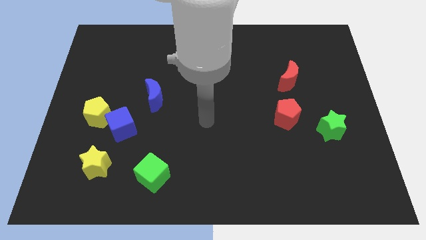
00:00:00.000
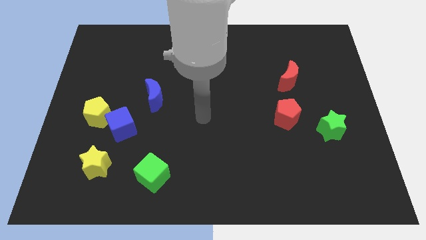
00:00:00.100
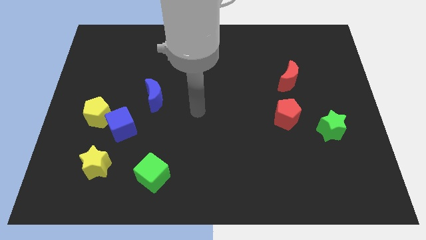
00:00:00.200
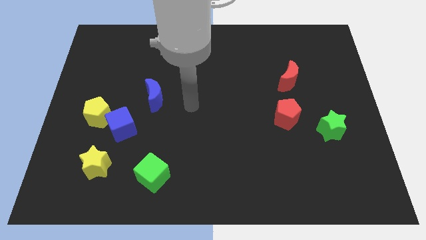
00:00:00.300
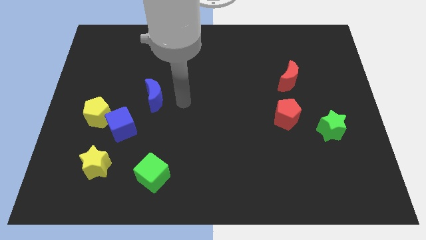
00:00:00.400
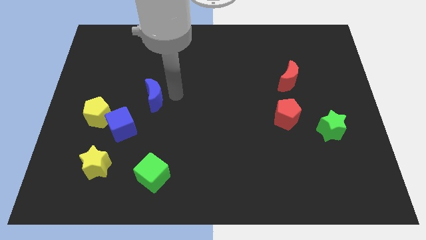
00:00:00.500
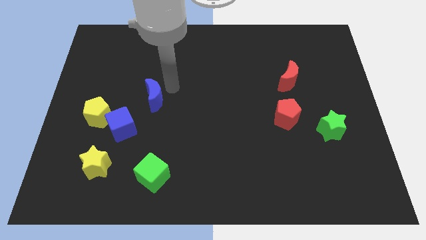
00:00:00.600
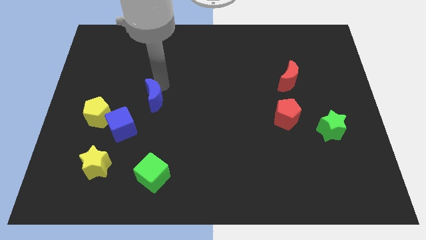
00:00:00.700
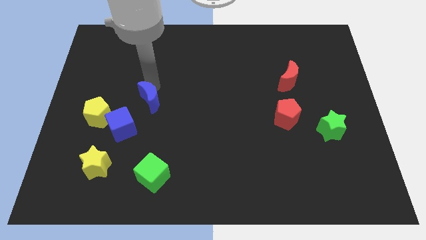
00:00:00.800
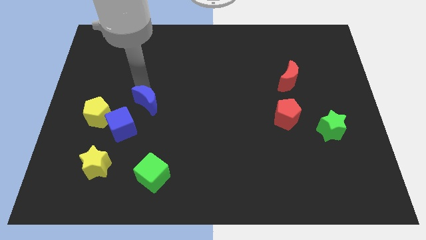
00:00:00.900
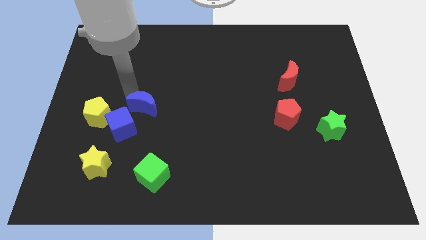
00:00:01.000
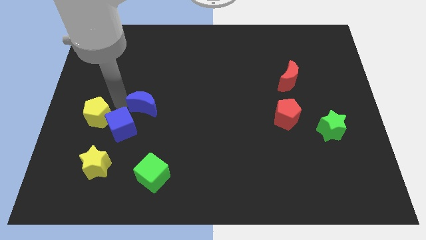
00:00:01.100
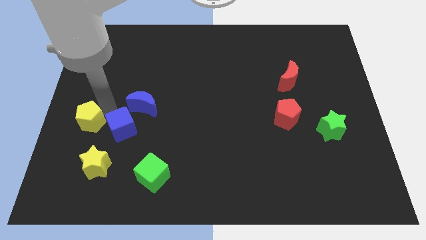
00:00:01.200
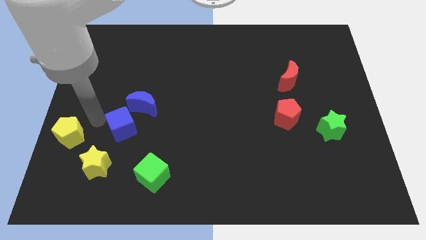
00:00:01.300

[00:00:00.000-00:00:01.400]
pull the blue cube apart from the yellow pentagon

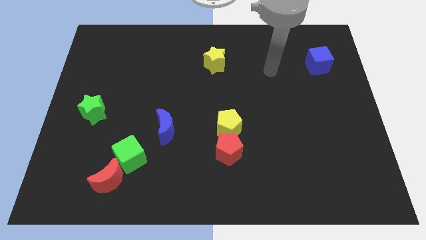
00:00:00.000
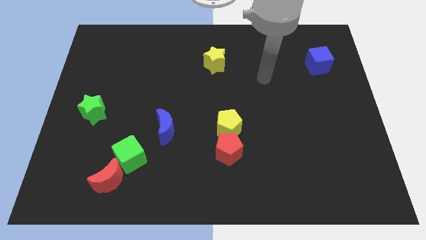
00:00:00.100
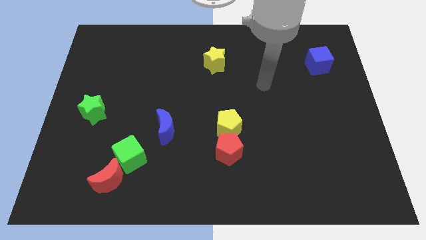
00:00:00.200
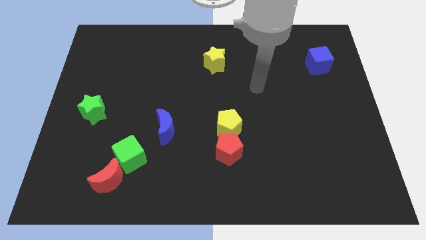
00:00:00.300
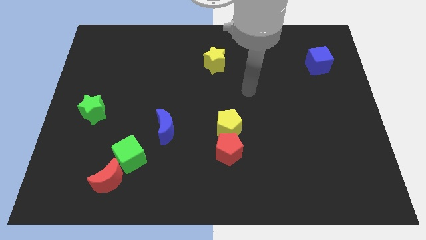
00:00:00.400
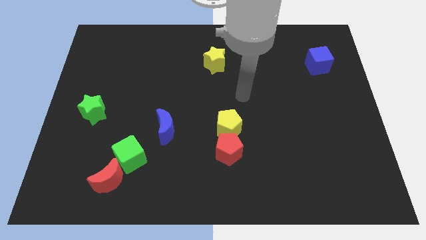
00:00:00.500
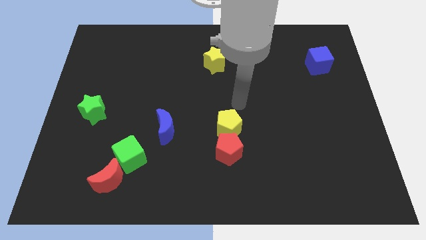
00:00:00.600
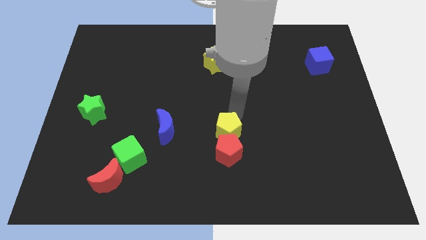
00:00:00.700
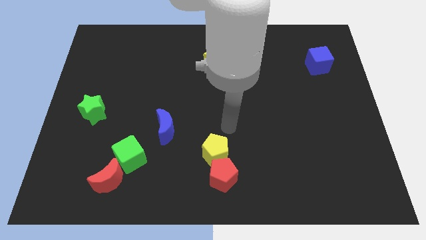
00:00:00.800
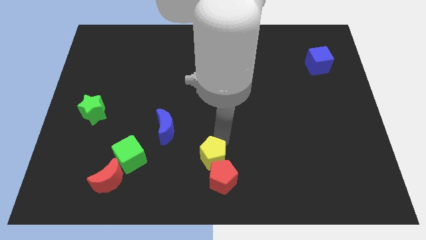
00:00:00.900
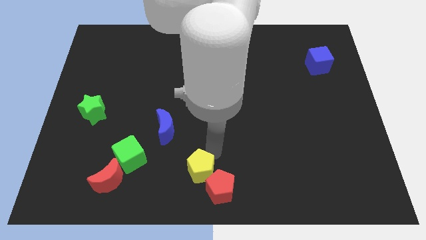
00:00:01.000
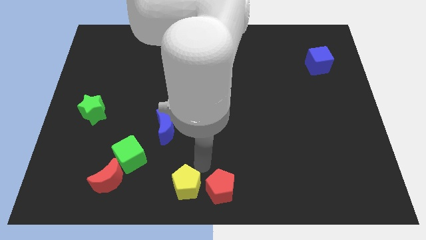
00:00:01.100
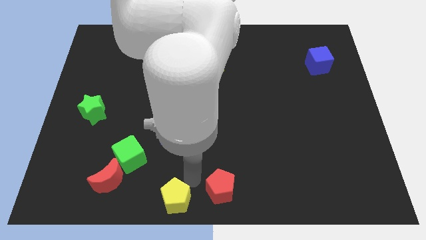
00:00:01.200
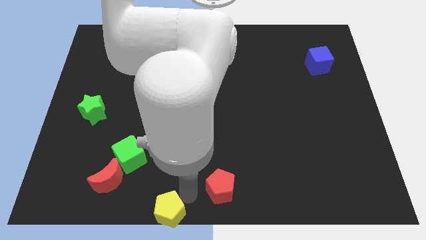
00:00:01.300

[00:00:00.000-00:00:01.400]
move the red pentagon away from the yellow pentagon

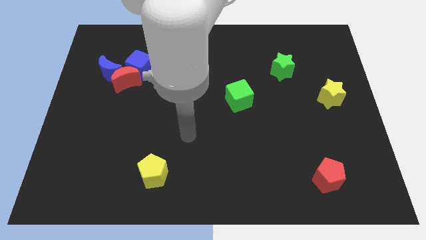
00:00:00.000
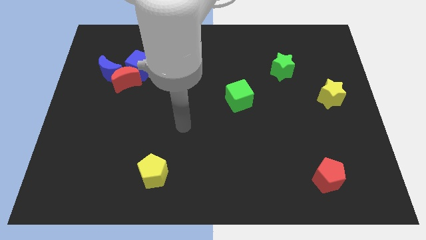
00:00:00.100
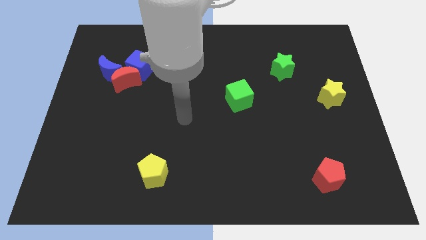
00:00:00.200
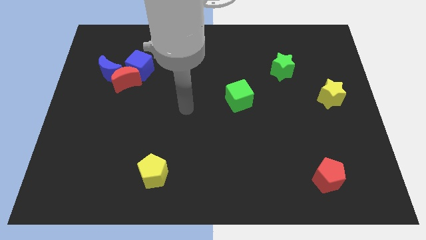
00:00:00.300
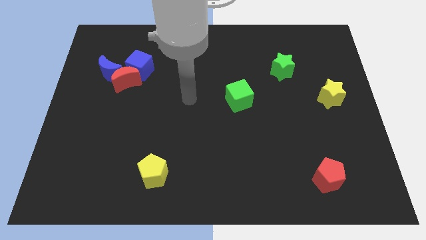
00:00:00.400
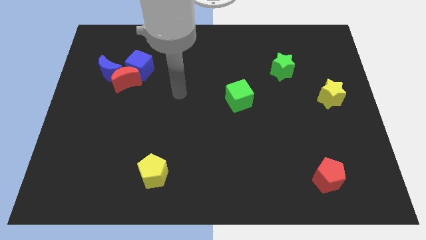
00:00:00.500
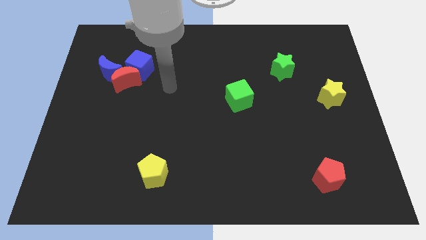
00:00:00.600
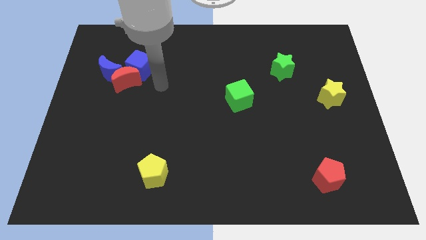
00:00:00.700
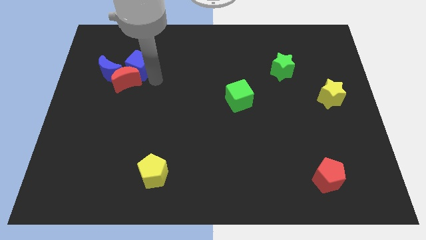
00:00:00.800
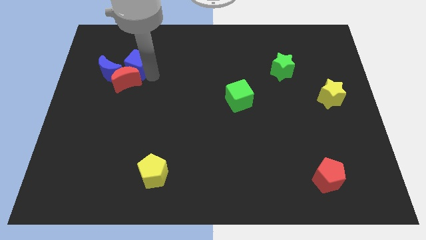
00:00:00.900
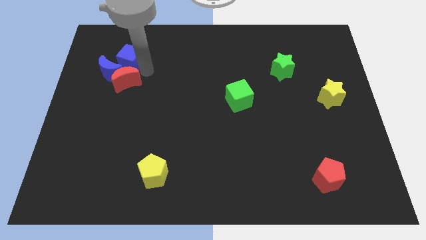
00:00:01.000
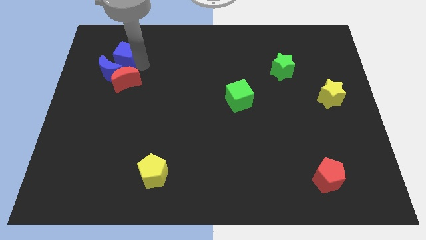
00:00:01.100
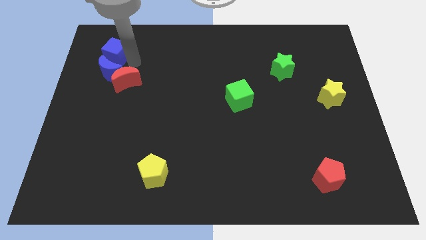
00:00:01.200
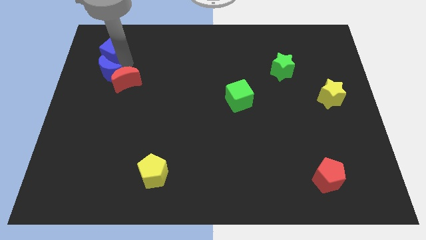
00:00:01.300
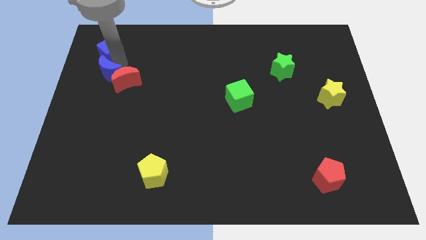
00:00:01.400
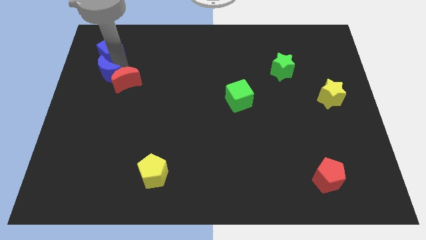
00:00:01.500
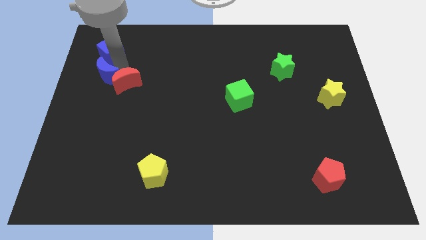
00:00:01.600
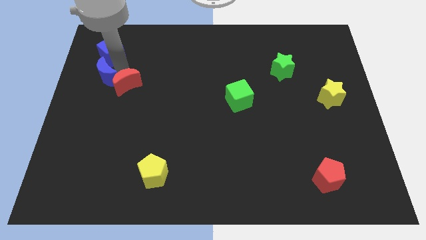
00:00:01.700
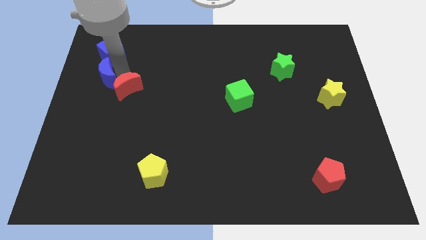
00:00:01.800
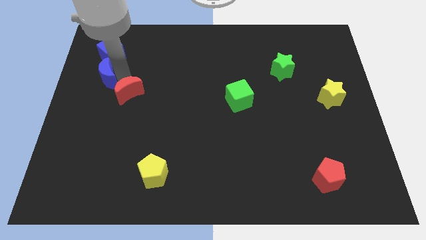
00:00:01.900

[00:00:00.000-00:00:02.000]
separate the red moon from the blue moon and blue cube

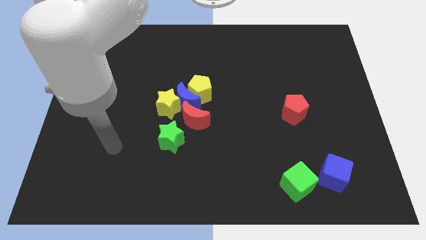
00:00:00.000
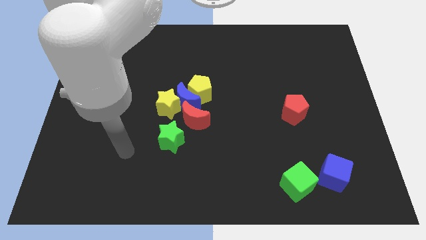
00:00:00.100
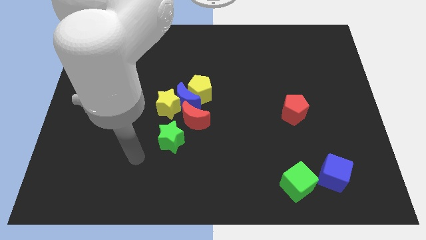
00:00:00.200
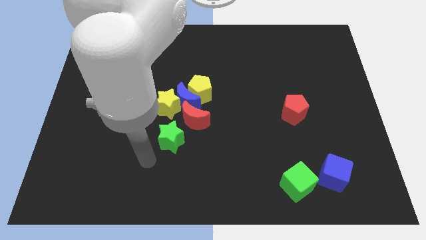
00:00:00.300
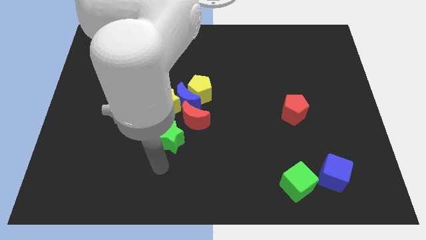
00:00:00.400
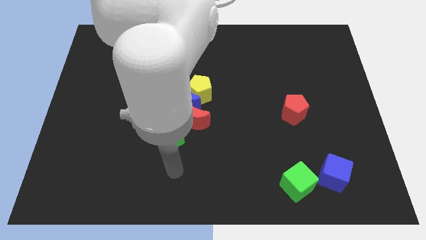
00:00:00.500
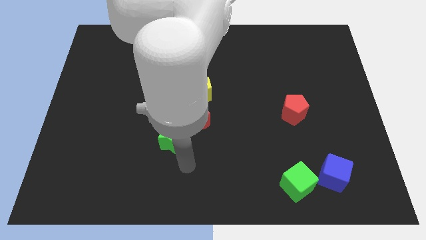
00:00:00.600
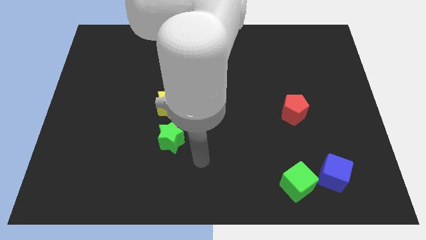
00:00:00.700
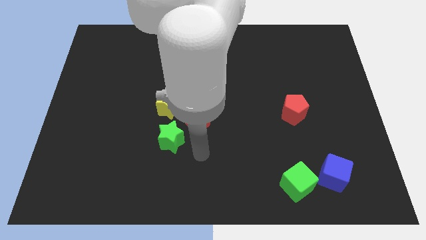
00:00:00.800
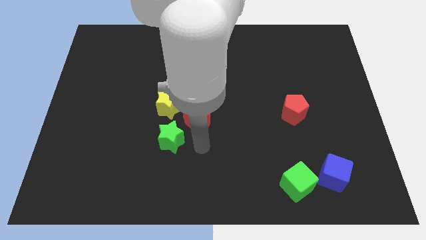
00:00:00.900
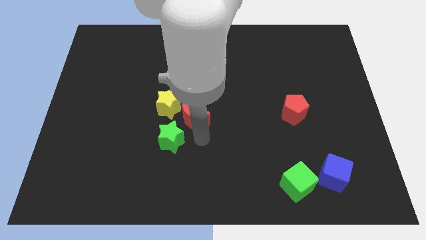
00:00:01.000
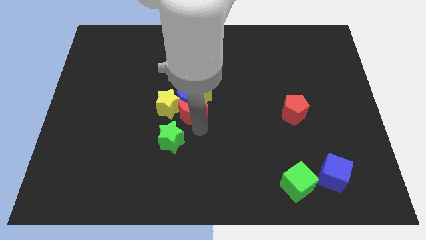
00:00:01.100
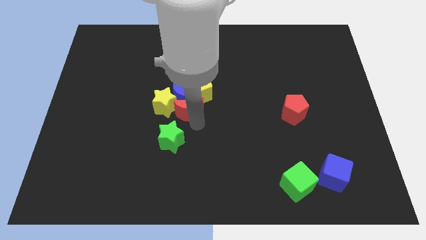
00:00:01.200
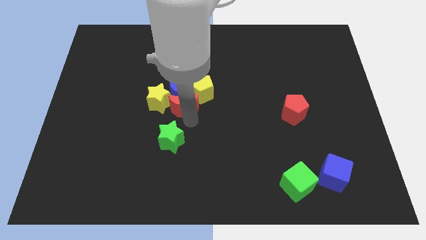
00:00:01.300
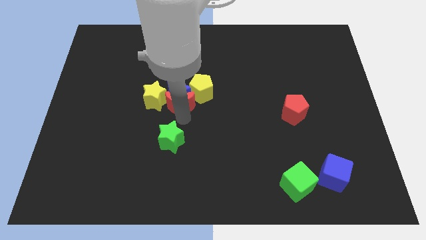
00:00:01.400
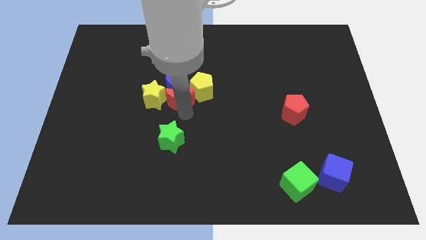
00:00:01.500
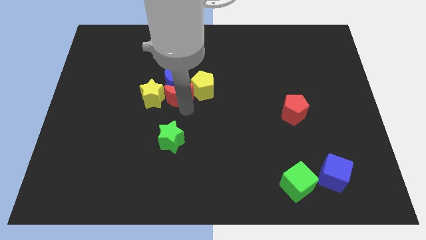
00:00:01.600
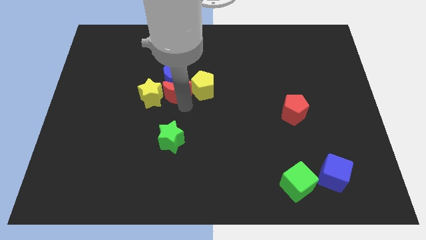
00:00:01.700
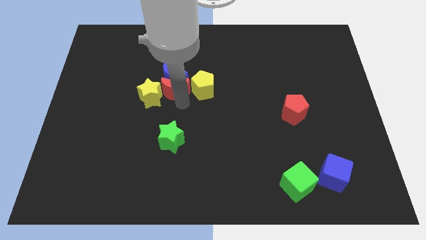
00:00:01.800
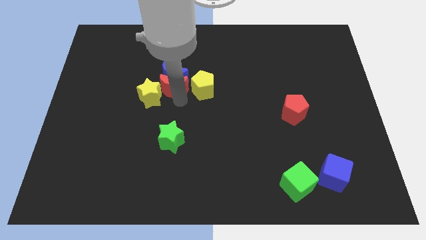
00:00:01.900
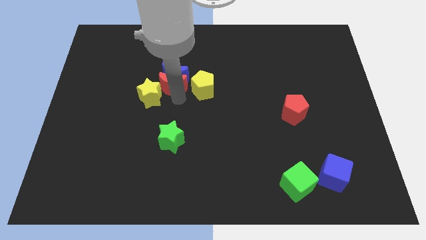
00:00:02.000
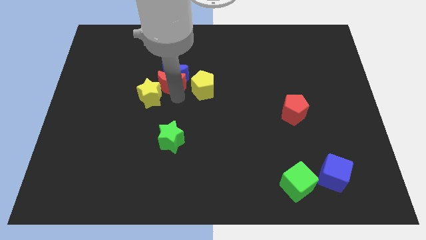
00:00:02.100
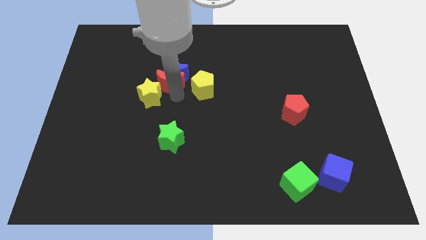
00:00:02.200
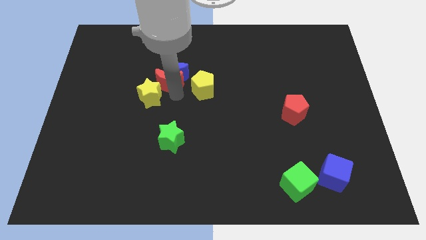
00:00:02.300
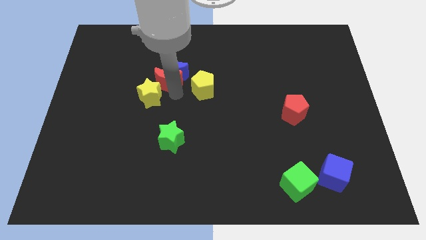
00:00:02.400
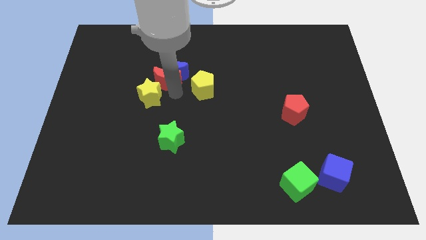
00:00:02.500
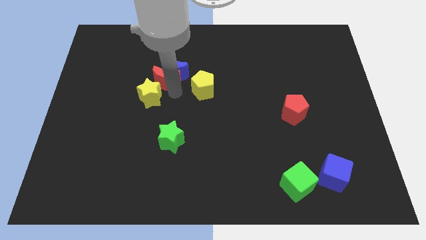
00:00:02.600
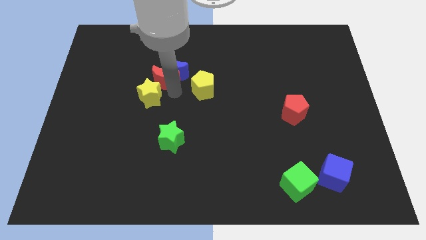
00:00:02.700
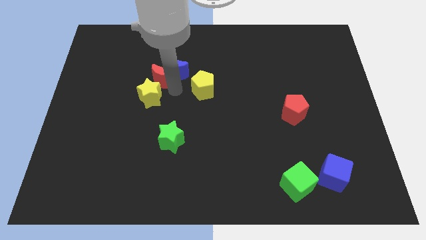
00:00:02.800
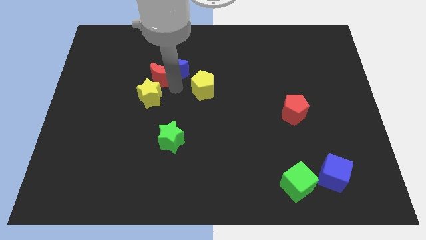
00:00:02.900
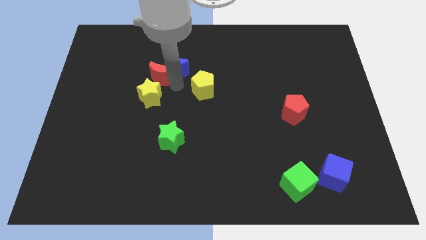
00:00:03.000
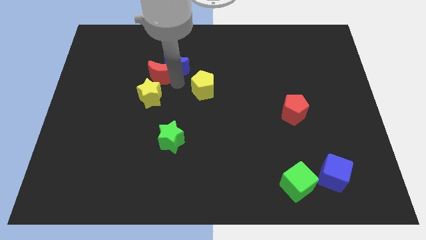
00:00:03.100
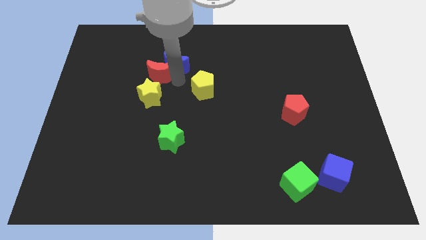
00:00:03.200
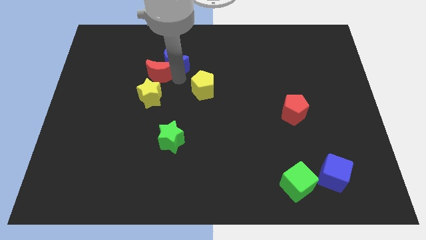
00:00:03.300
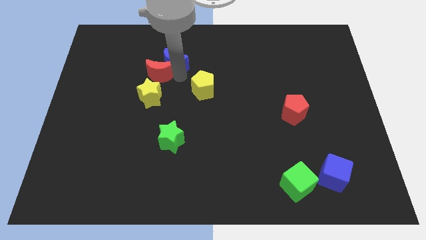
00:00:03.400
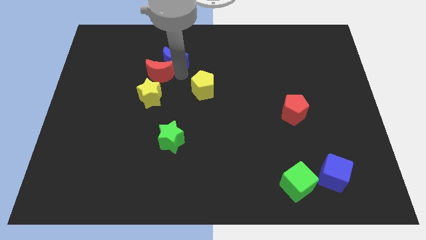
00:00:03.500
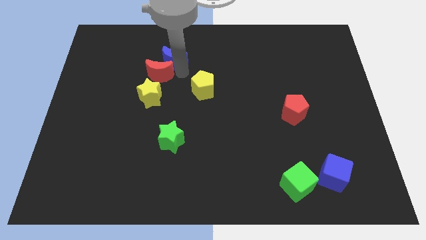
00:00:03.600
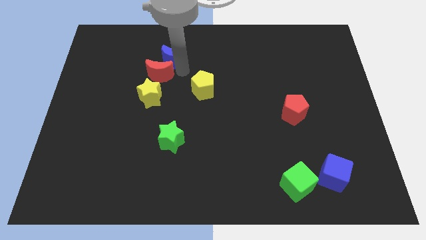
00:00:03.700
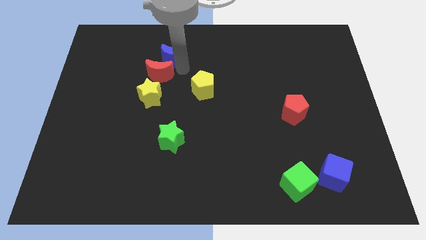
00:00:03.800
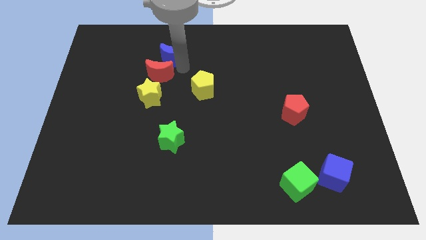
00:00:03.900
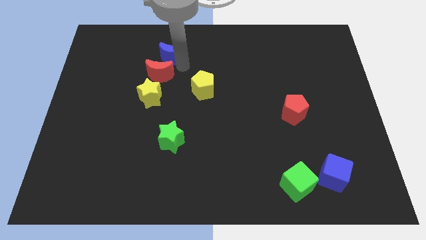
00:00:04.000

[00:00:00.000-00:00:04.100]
pull the blue moon apart from the clump

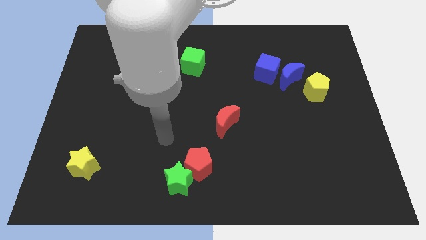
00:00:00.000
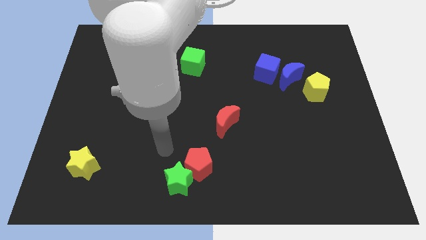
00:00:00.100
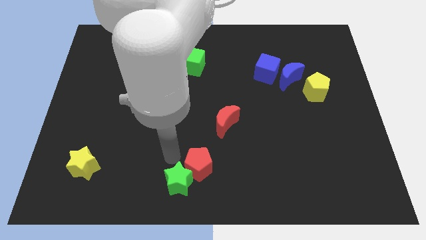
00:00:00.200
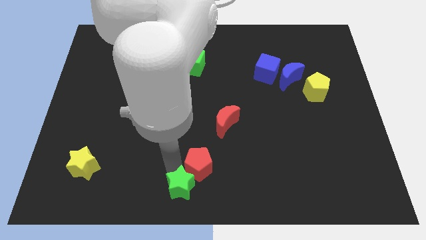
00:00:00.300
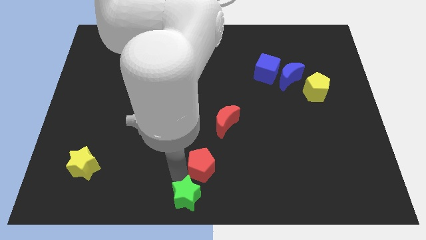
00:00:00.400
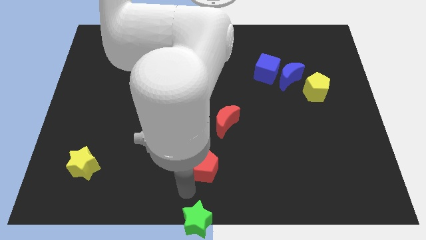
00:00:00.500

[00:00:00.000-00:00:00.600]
move the red pentagon away from the green star
